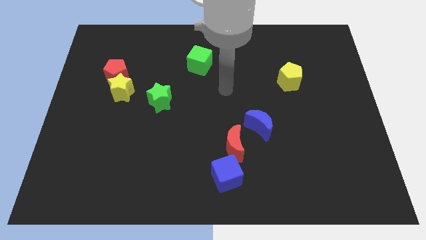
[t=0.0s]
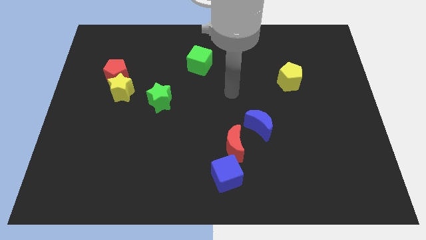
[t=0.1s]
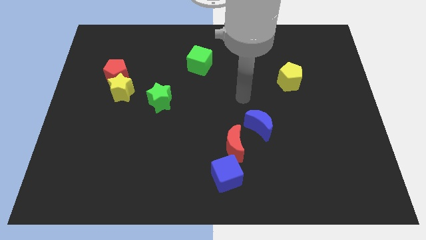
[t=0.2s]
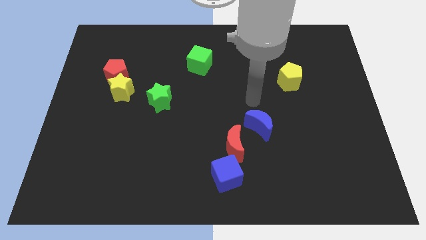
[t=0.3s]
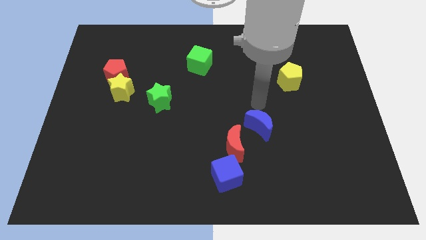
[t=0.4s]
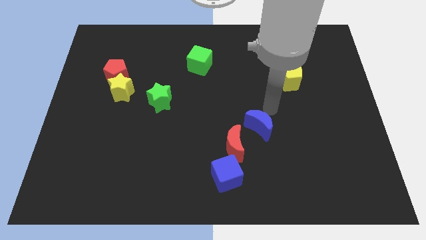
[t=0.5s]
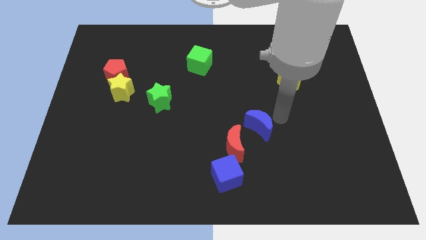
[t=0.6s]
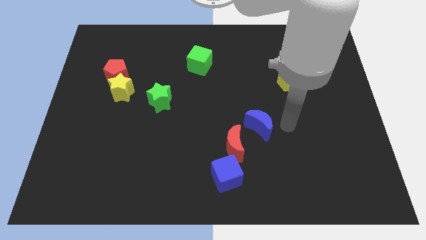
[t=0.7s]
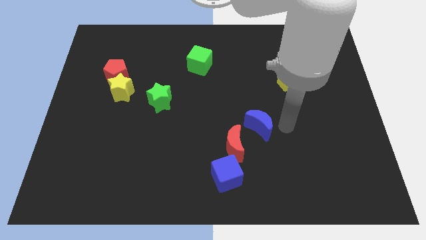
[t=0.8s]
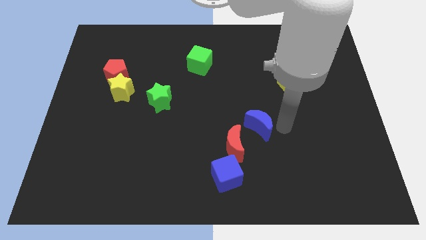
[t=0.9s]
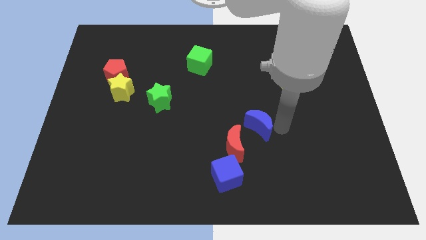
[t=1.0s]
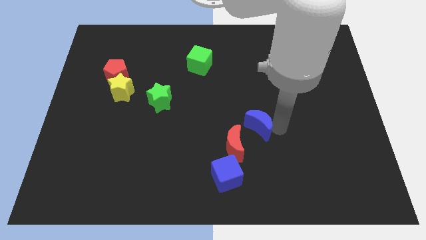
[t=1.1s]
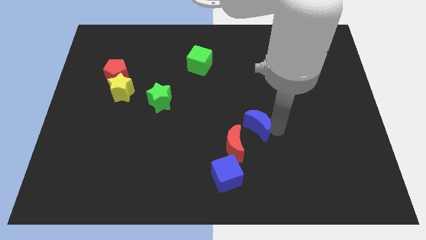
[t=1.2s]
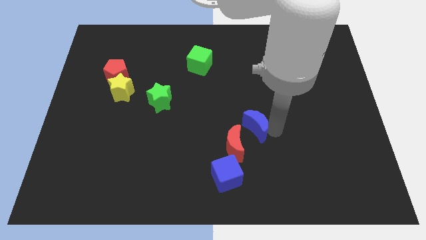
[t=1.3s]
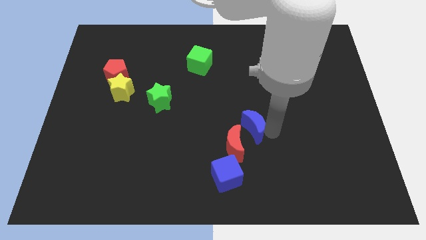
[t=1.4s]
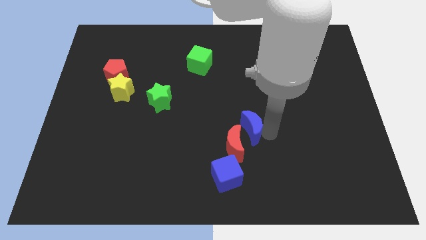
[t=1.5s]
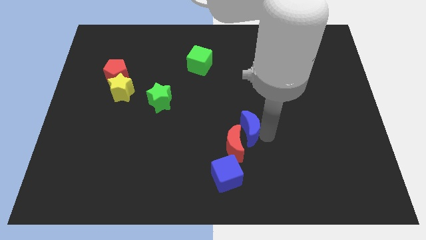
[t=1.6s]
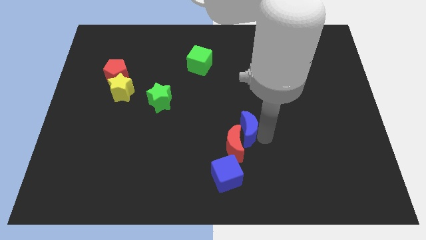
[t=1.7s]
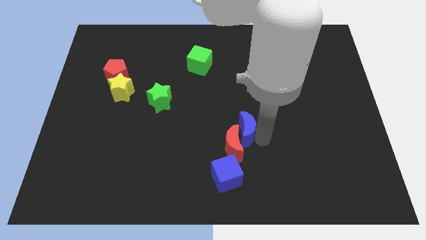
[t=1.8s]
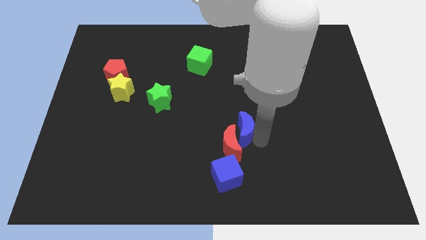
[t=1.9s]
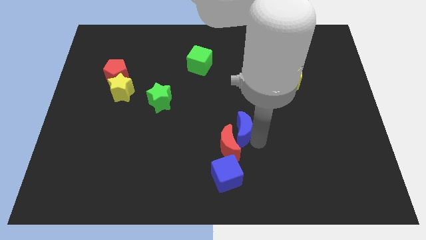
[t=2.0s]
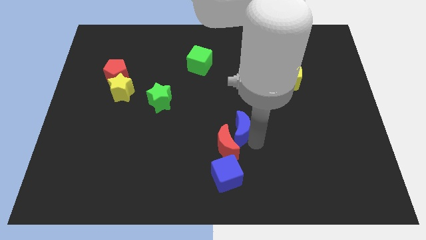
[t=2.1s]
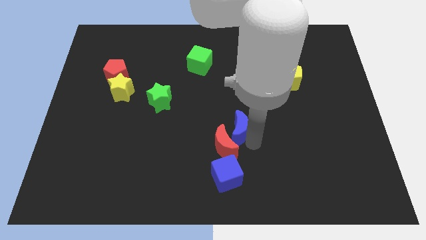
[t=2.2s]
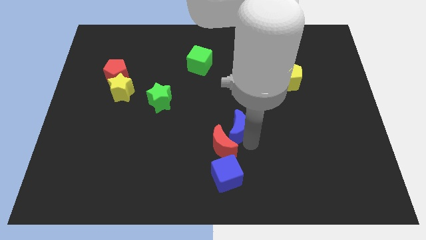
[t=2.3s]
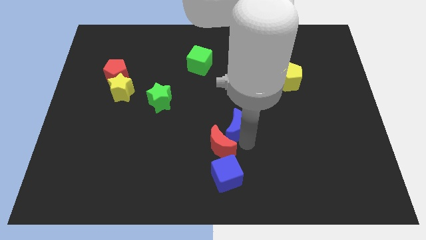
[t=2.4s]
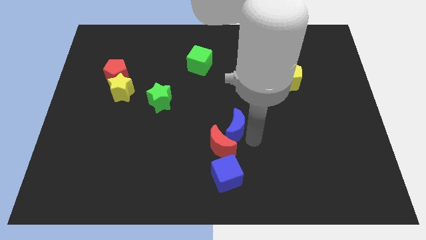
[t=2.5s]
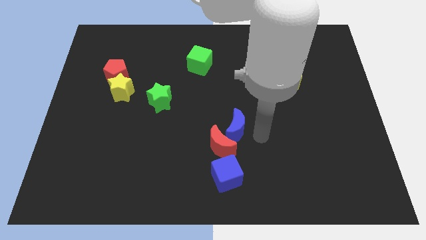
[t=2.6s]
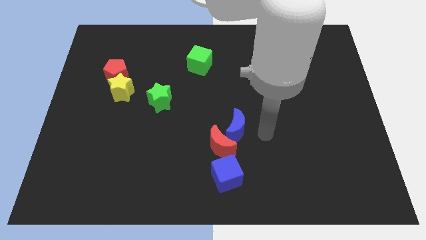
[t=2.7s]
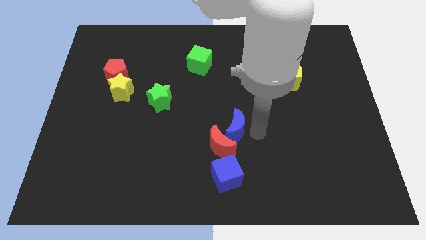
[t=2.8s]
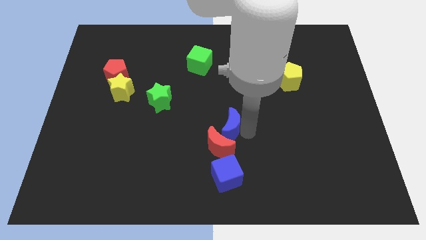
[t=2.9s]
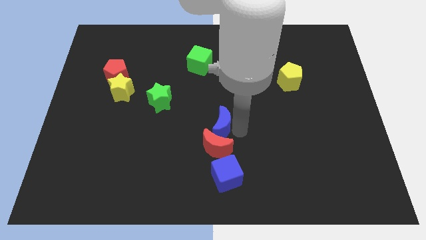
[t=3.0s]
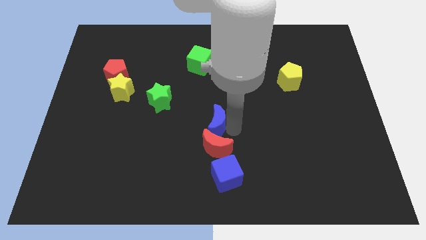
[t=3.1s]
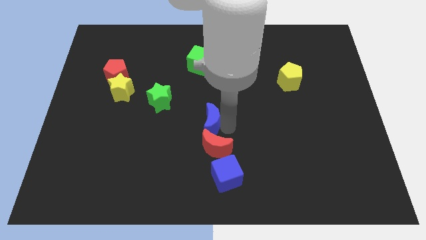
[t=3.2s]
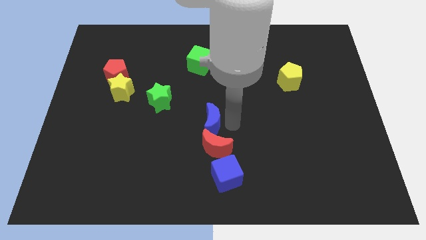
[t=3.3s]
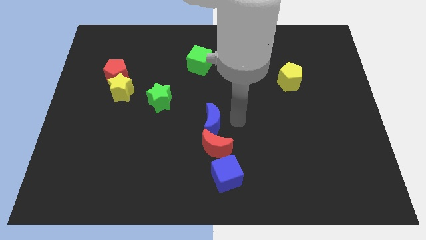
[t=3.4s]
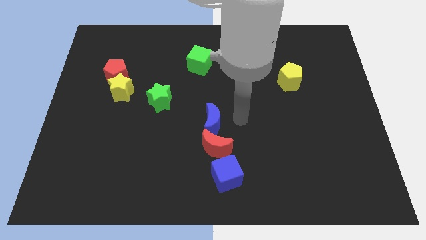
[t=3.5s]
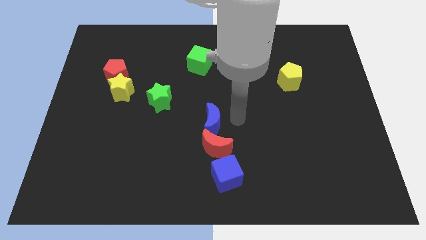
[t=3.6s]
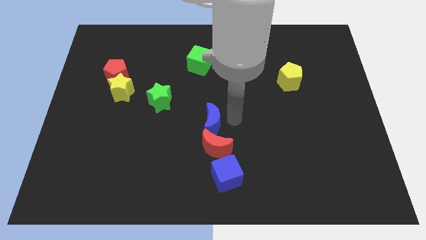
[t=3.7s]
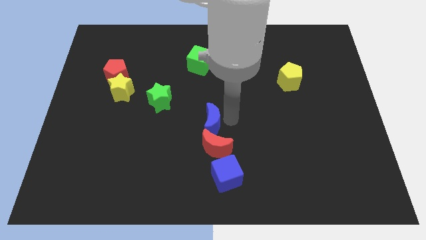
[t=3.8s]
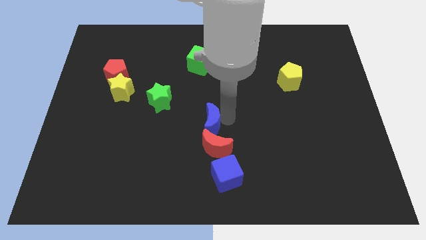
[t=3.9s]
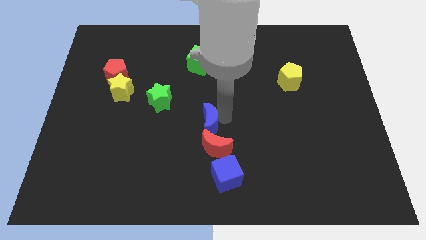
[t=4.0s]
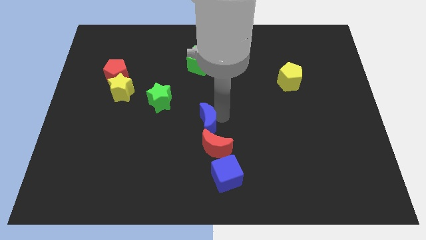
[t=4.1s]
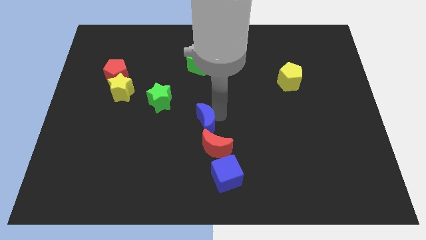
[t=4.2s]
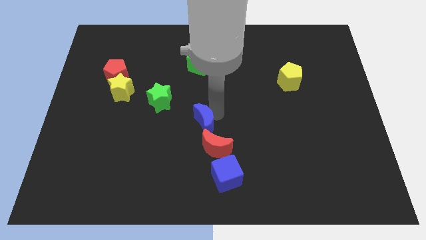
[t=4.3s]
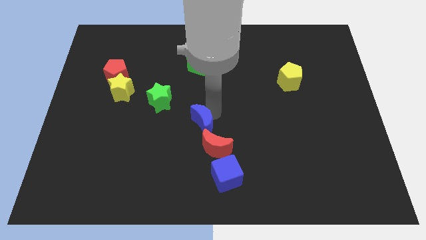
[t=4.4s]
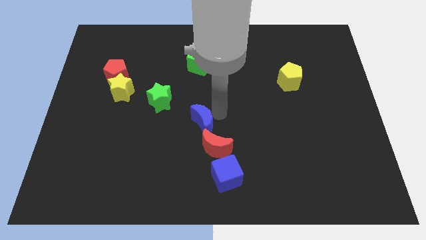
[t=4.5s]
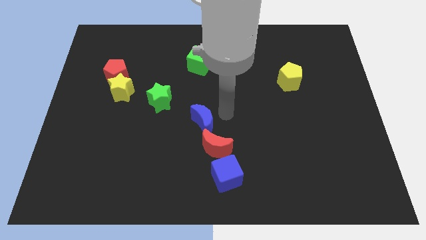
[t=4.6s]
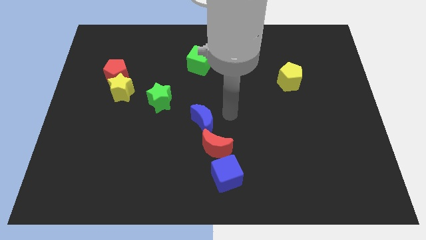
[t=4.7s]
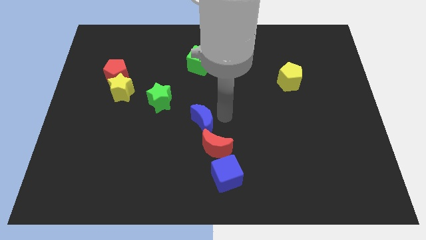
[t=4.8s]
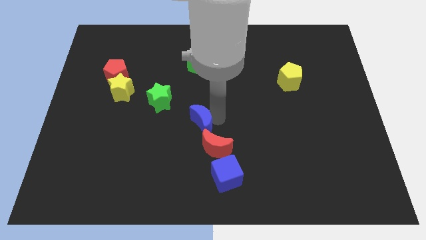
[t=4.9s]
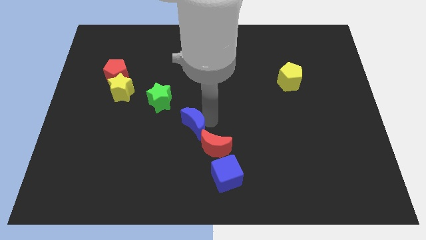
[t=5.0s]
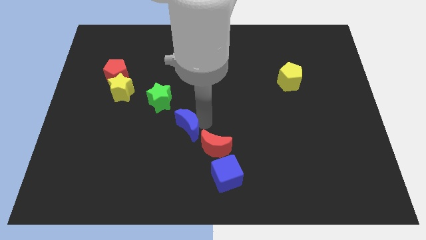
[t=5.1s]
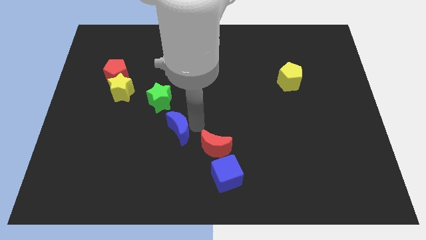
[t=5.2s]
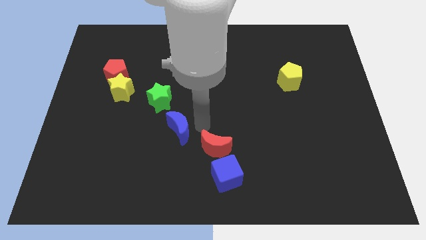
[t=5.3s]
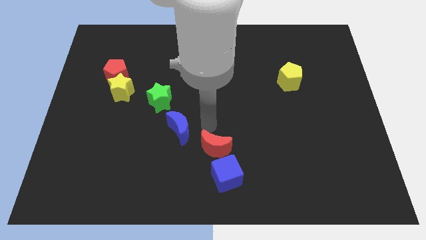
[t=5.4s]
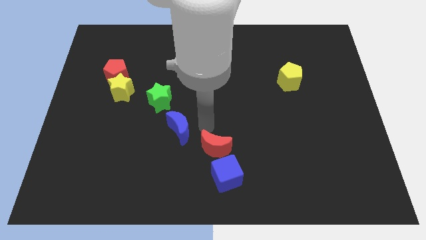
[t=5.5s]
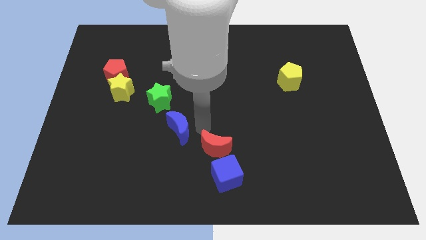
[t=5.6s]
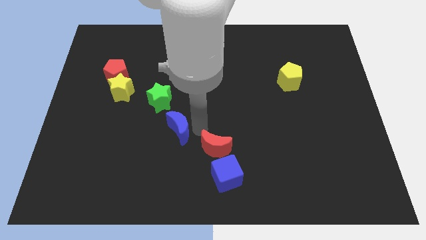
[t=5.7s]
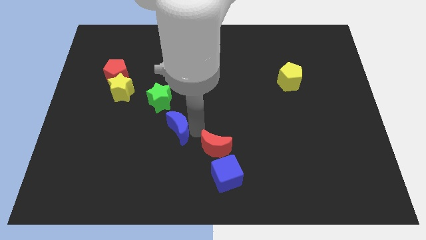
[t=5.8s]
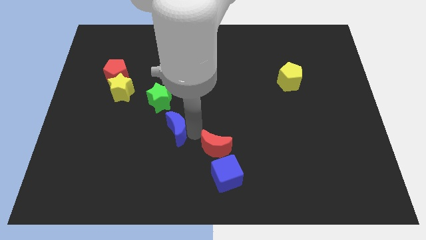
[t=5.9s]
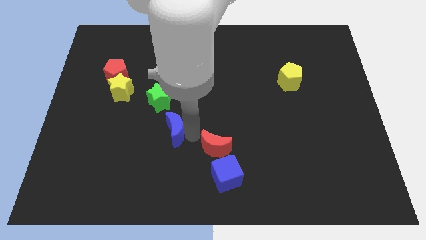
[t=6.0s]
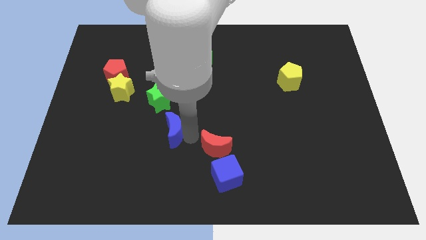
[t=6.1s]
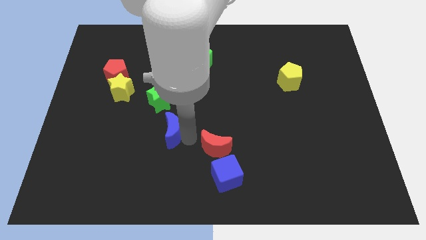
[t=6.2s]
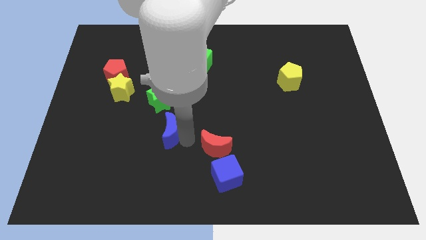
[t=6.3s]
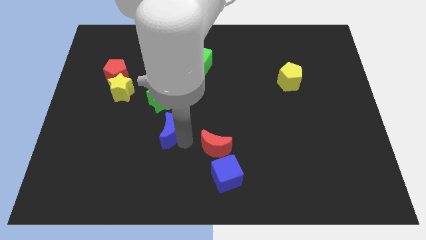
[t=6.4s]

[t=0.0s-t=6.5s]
move the blue moon to the left

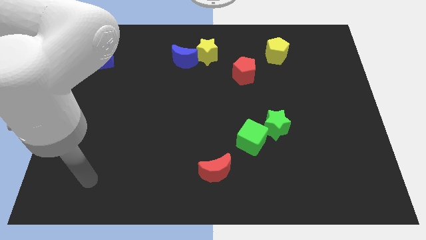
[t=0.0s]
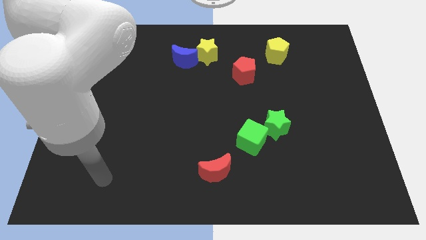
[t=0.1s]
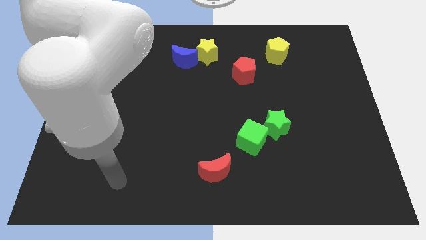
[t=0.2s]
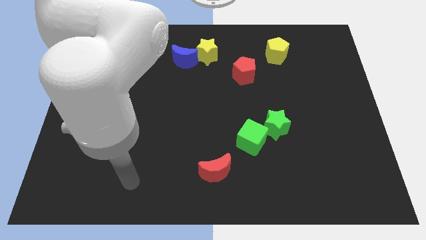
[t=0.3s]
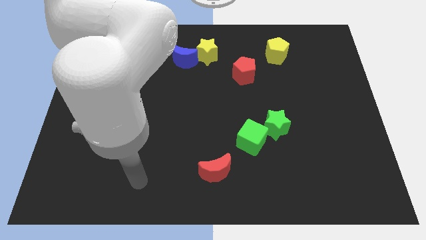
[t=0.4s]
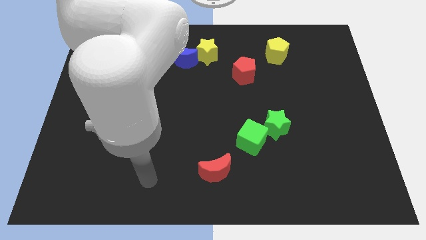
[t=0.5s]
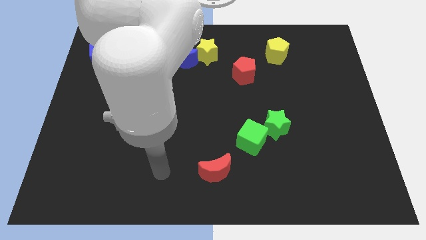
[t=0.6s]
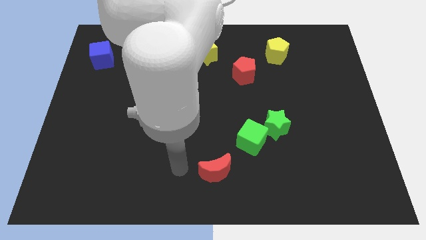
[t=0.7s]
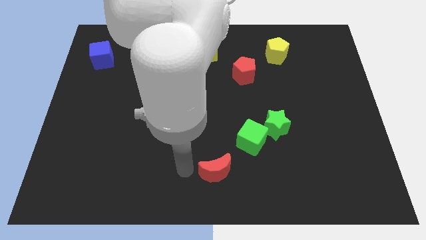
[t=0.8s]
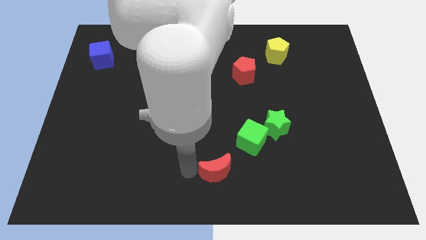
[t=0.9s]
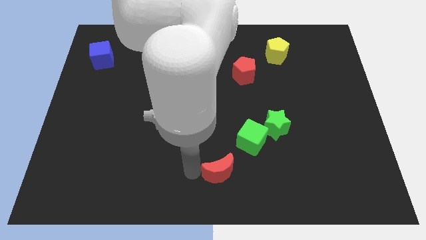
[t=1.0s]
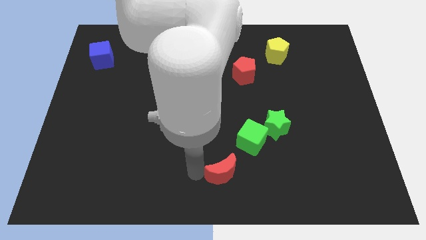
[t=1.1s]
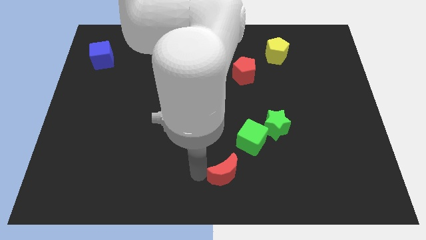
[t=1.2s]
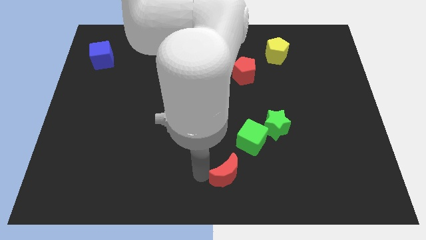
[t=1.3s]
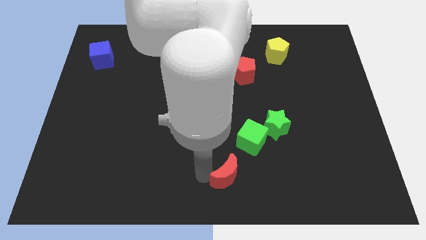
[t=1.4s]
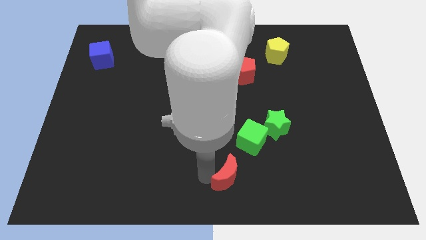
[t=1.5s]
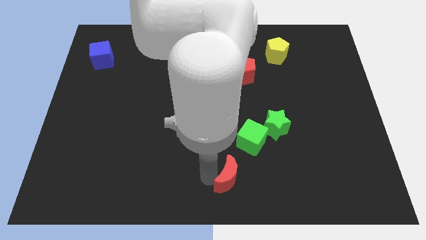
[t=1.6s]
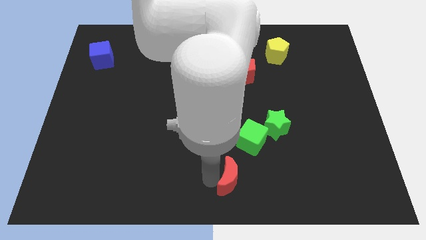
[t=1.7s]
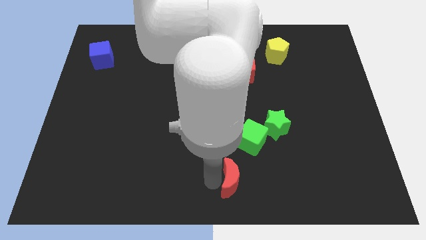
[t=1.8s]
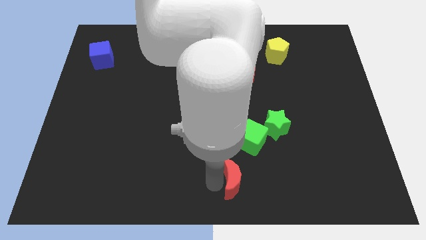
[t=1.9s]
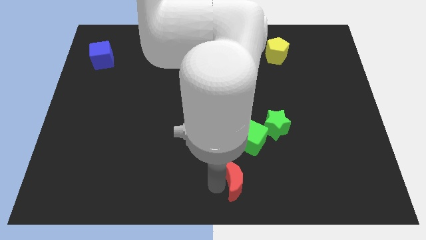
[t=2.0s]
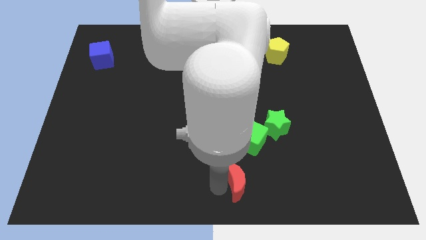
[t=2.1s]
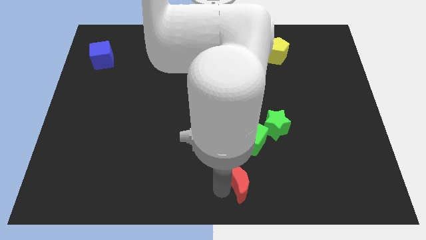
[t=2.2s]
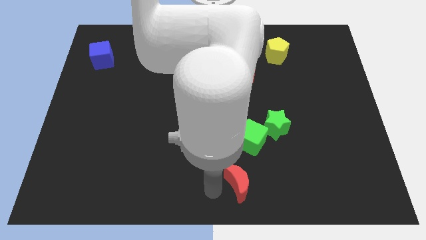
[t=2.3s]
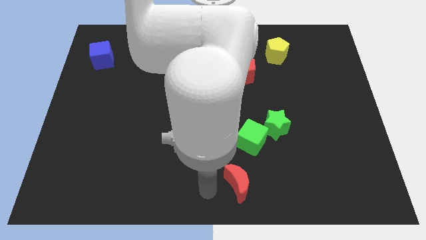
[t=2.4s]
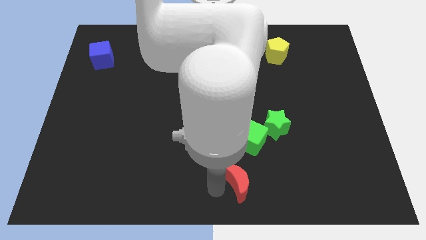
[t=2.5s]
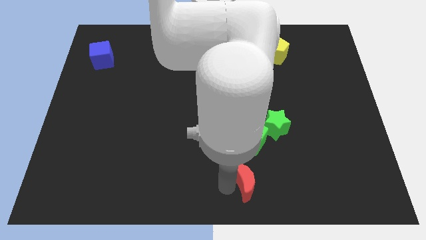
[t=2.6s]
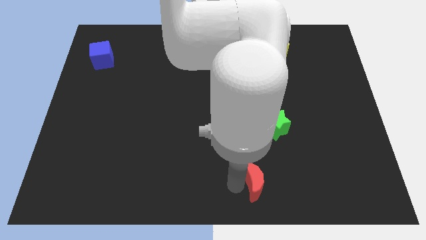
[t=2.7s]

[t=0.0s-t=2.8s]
slide the red moon right slightly
